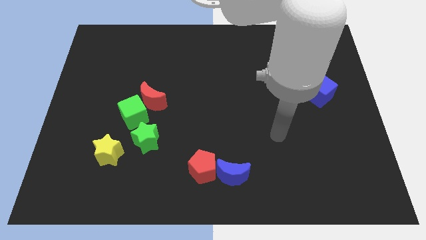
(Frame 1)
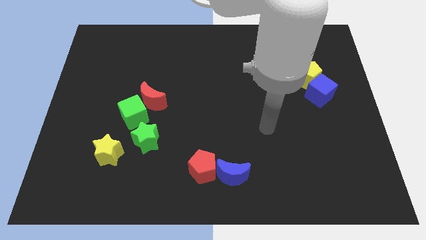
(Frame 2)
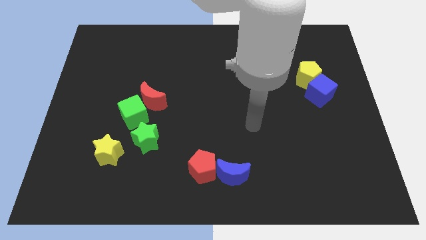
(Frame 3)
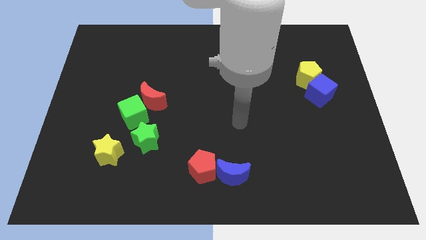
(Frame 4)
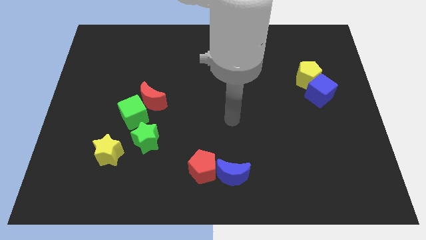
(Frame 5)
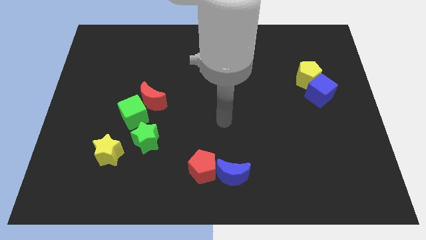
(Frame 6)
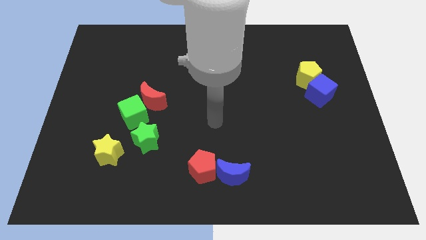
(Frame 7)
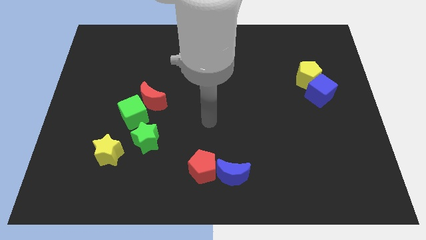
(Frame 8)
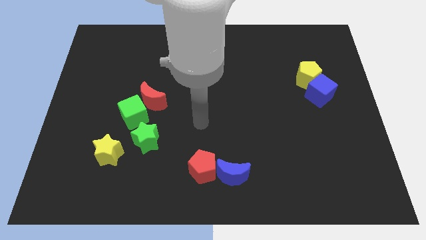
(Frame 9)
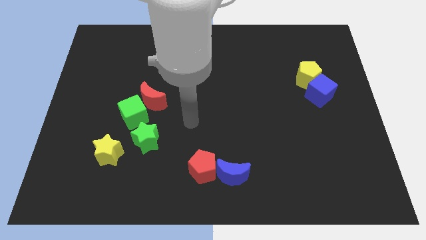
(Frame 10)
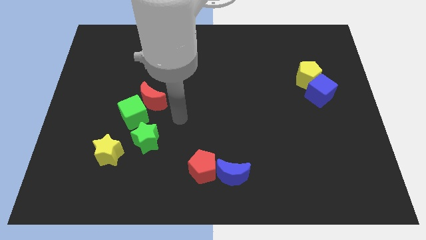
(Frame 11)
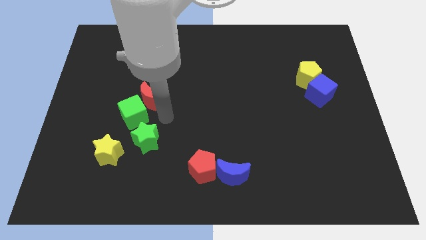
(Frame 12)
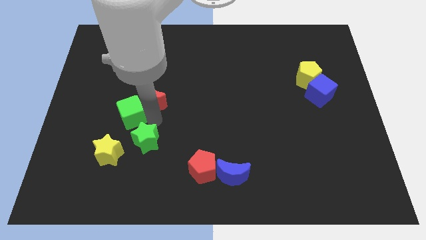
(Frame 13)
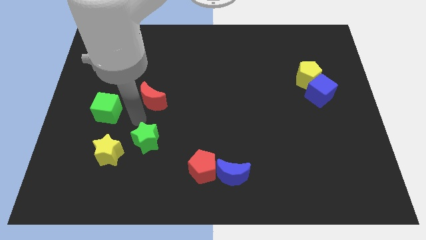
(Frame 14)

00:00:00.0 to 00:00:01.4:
separate the red moon from the green cube

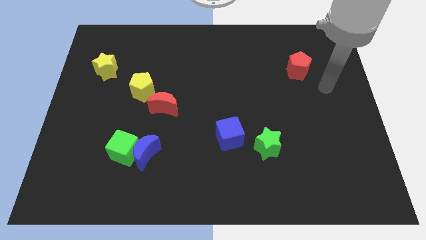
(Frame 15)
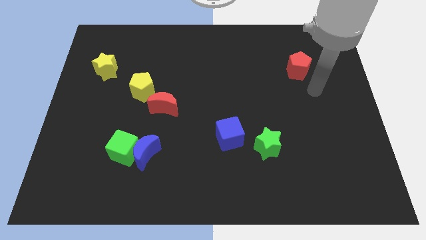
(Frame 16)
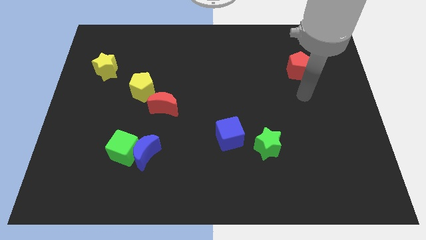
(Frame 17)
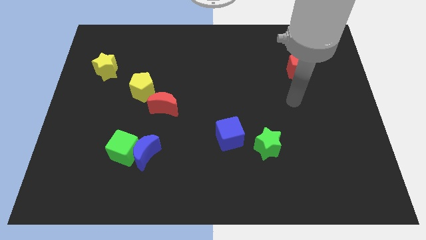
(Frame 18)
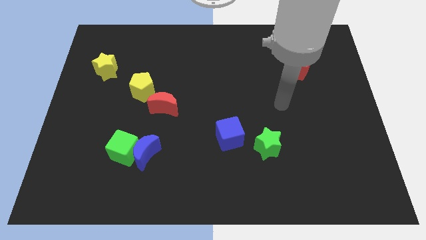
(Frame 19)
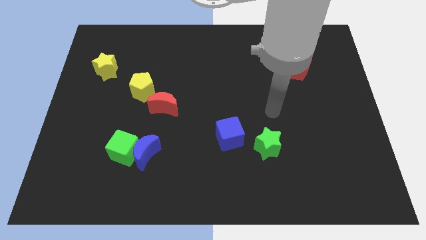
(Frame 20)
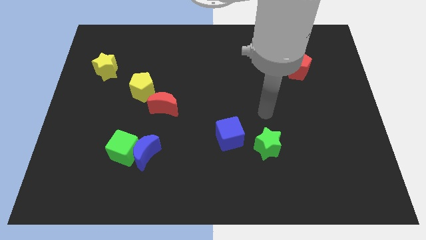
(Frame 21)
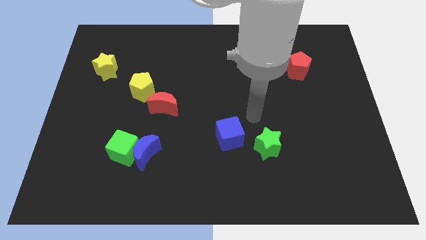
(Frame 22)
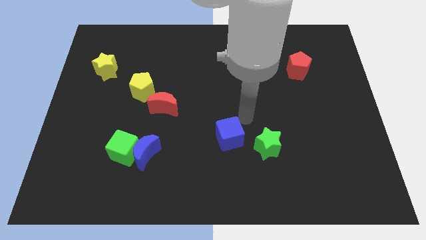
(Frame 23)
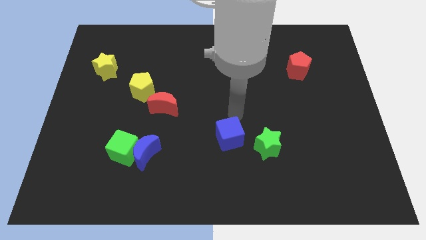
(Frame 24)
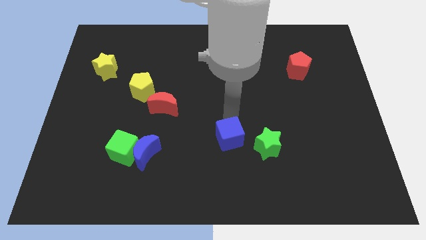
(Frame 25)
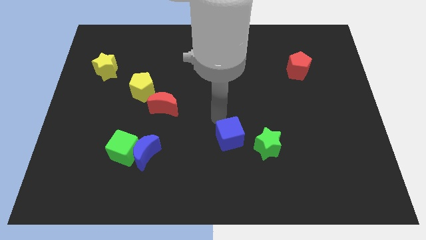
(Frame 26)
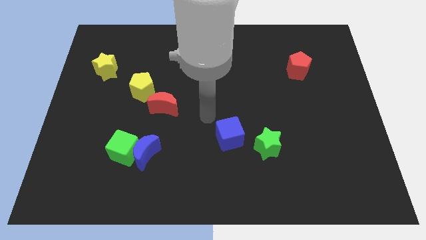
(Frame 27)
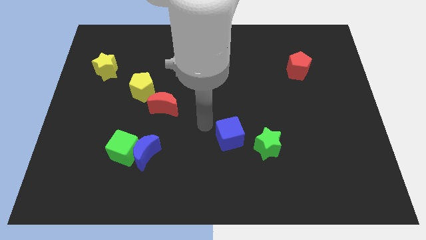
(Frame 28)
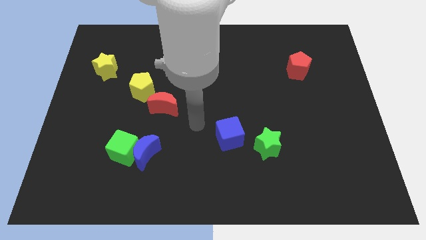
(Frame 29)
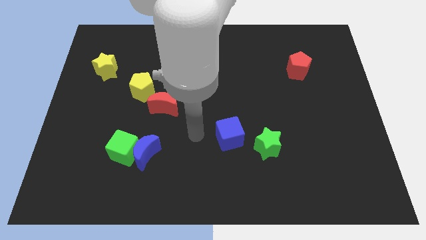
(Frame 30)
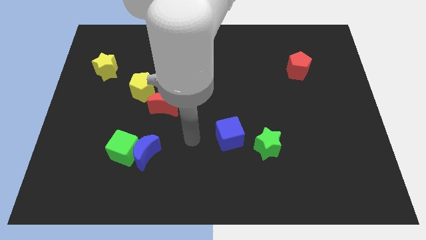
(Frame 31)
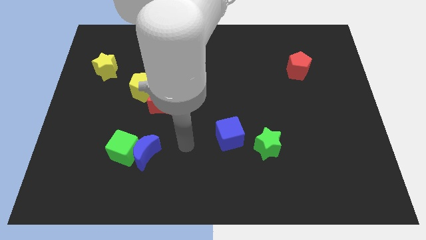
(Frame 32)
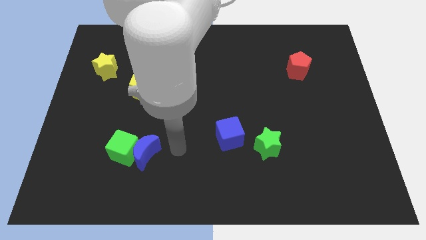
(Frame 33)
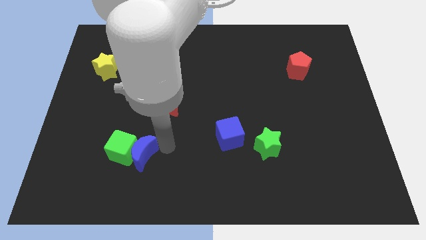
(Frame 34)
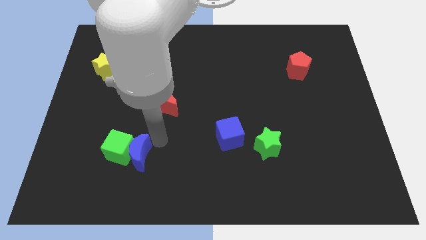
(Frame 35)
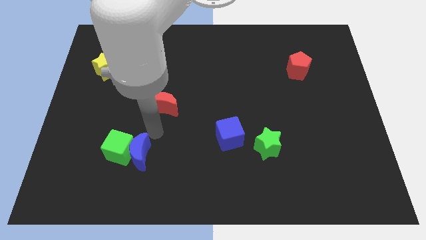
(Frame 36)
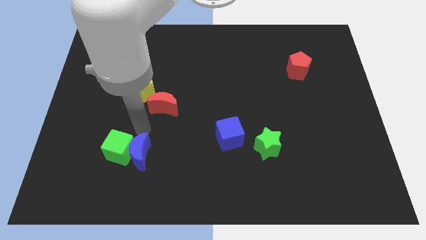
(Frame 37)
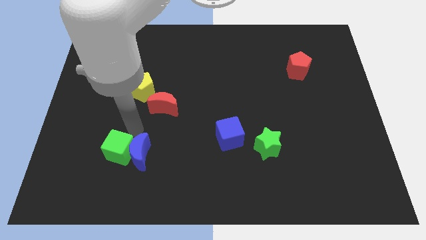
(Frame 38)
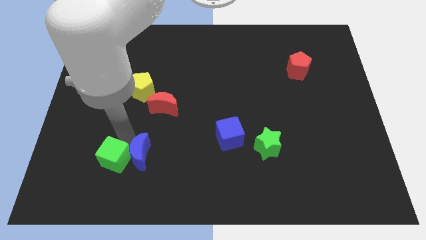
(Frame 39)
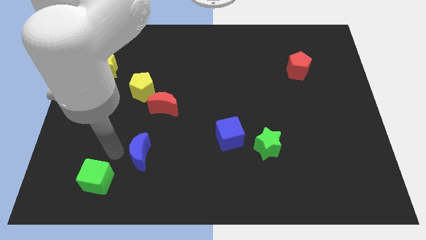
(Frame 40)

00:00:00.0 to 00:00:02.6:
move the blue moon away from the green cube

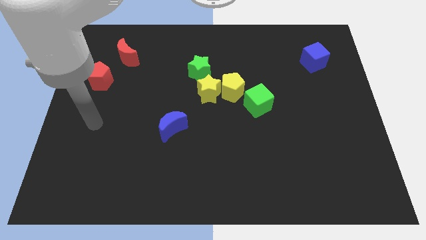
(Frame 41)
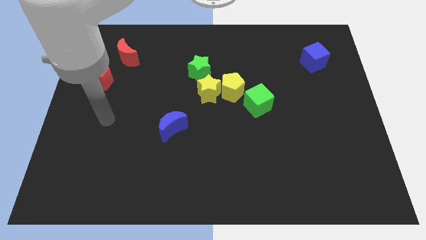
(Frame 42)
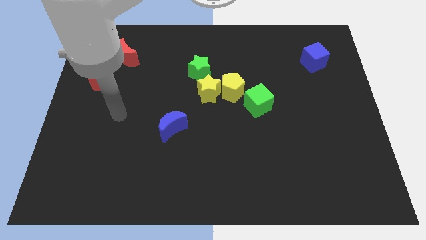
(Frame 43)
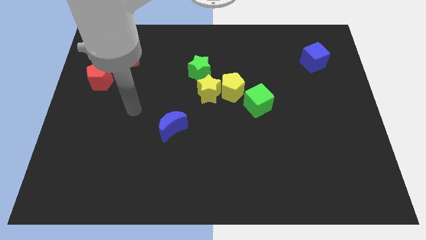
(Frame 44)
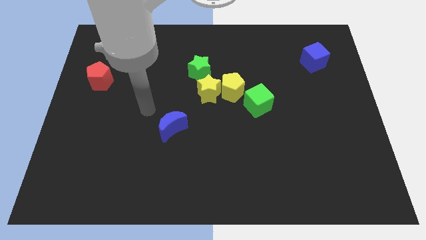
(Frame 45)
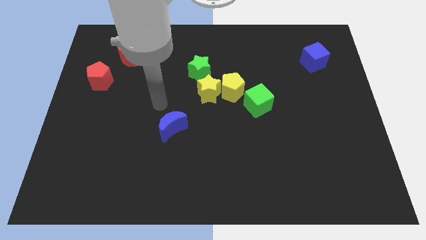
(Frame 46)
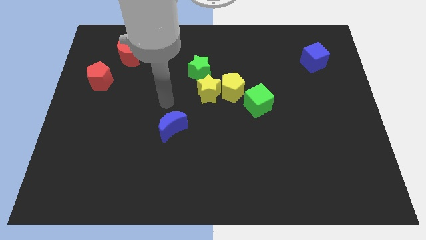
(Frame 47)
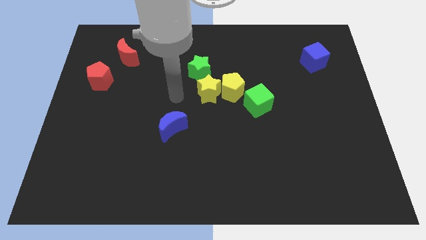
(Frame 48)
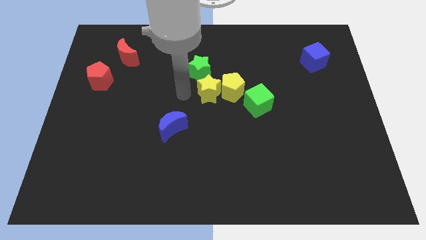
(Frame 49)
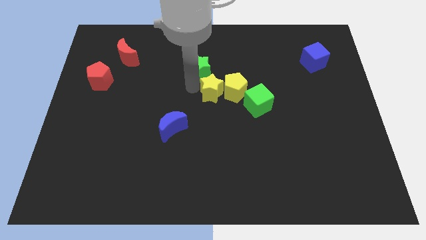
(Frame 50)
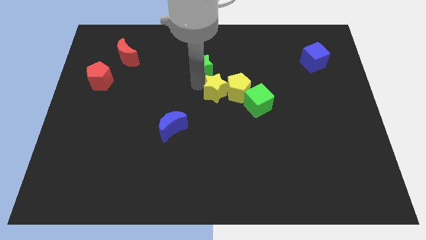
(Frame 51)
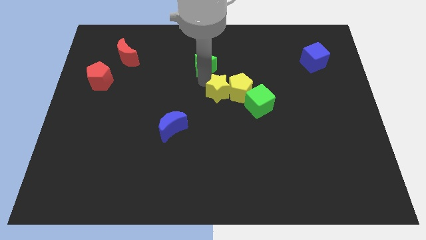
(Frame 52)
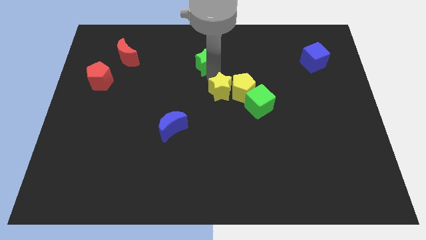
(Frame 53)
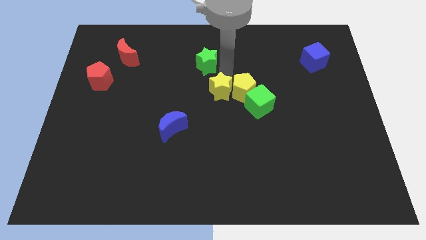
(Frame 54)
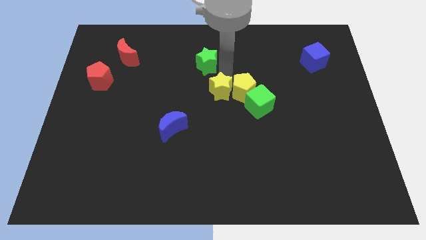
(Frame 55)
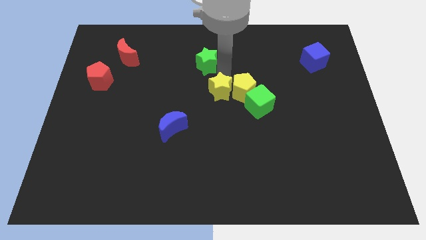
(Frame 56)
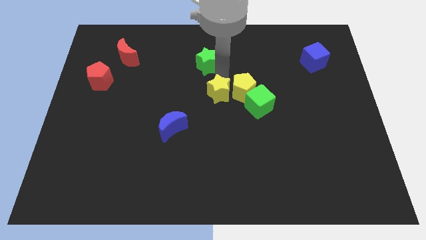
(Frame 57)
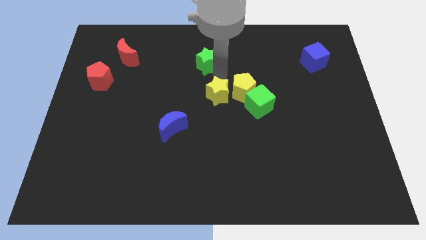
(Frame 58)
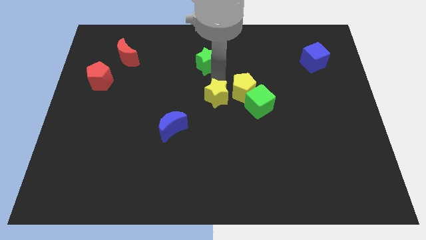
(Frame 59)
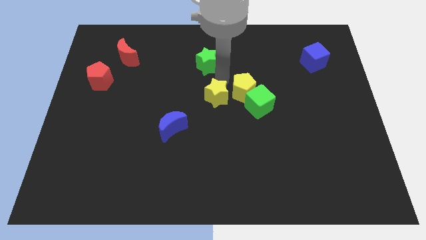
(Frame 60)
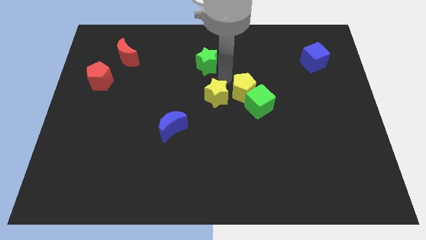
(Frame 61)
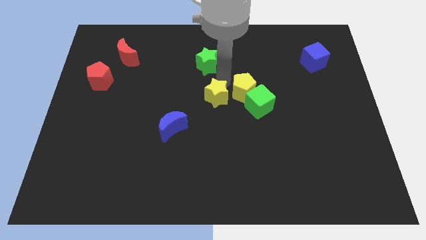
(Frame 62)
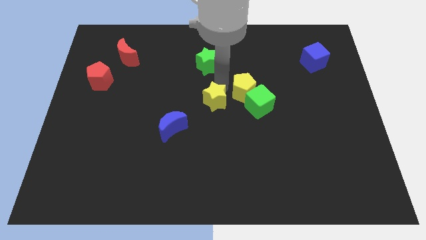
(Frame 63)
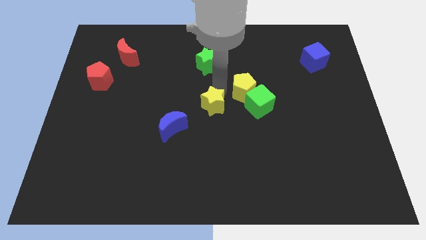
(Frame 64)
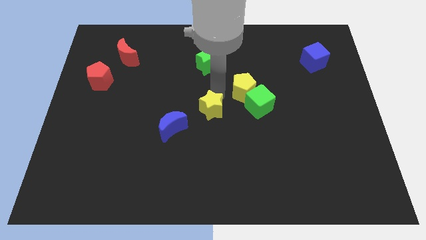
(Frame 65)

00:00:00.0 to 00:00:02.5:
pull the yellow star apart from the yellow pentagon and green star

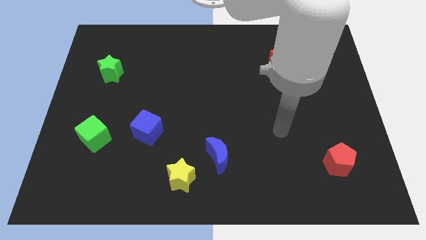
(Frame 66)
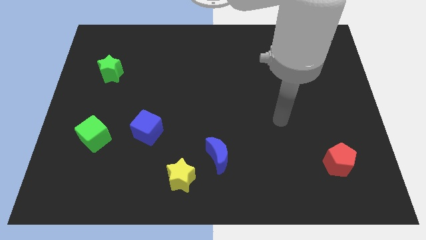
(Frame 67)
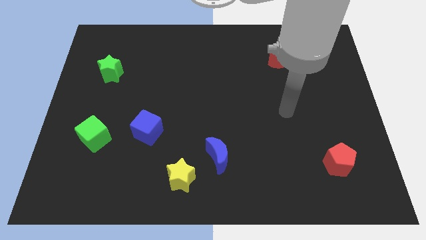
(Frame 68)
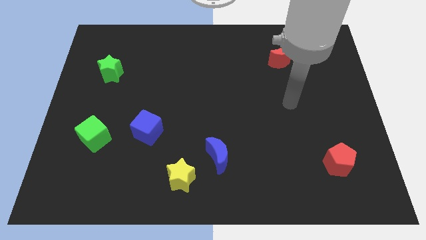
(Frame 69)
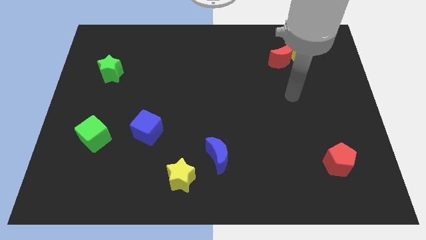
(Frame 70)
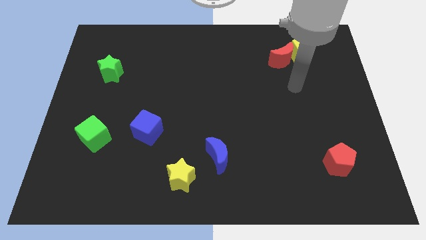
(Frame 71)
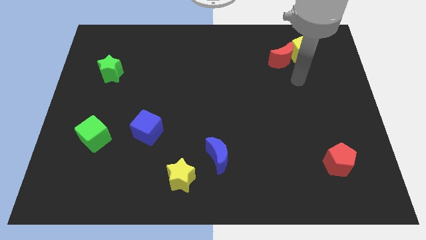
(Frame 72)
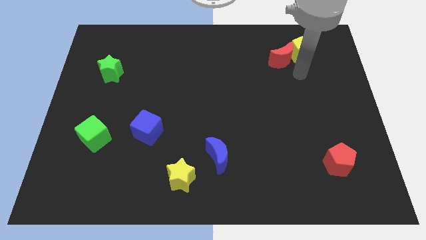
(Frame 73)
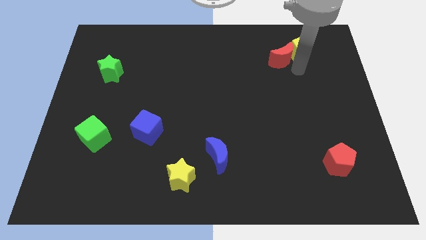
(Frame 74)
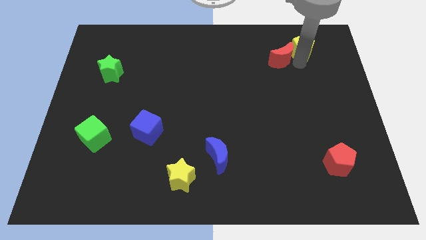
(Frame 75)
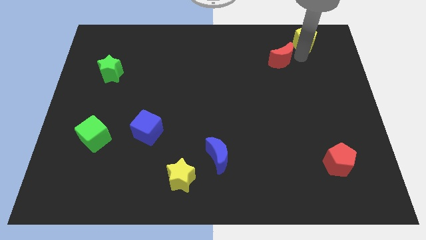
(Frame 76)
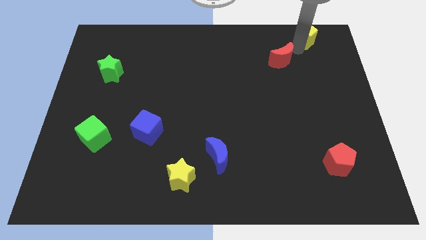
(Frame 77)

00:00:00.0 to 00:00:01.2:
pull the red moon apart from the yellow pentagon

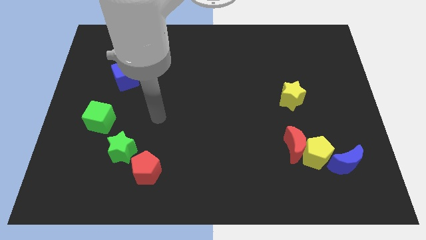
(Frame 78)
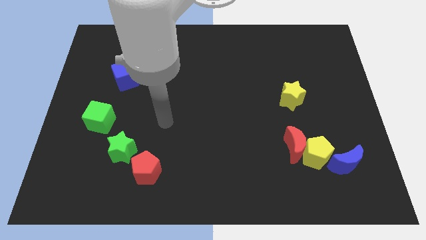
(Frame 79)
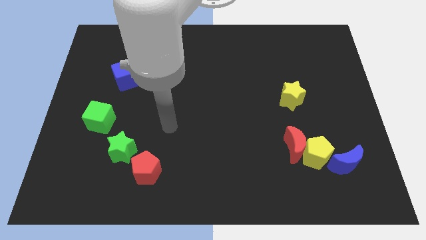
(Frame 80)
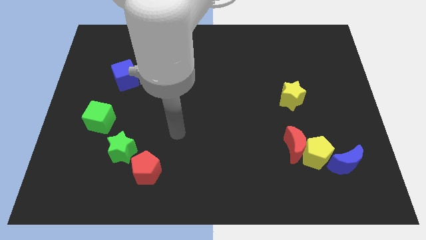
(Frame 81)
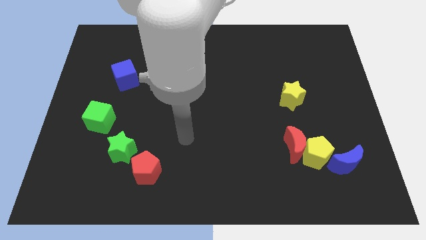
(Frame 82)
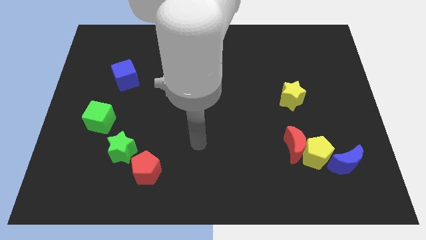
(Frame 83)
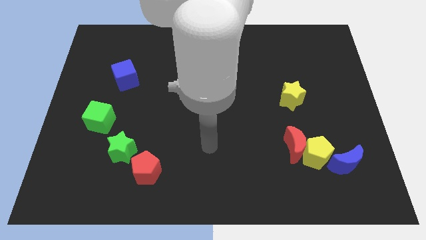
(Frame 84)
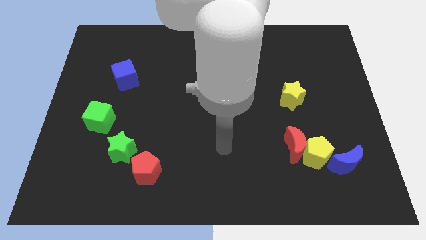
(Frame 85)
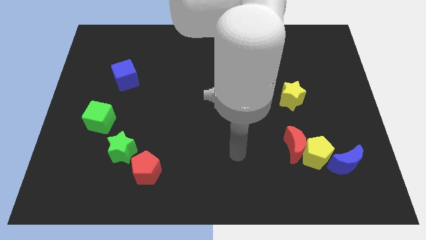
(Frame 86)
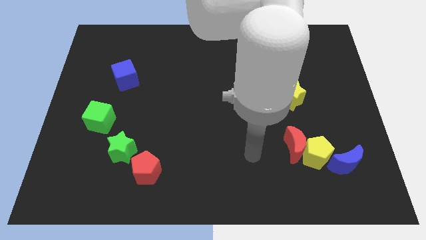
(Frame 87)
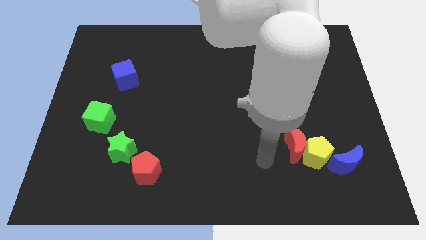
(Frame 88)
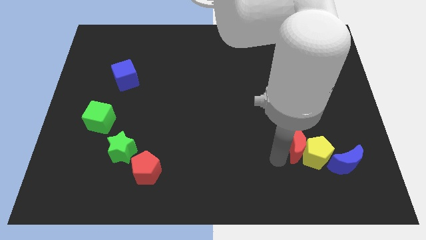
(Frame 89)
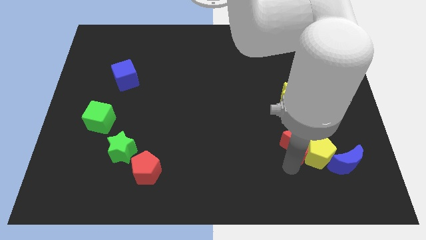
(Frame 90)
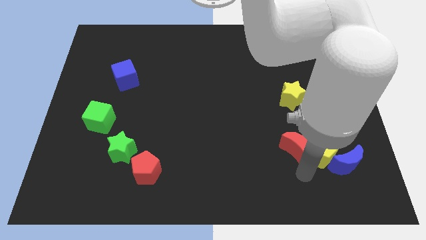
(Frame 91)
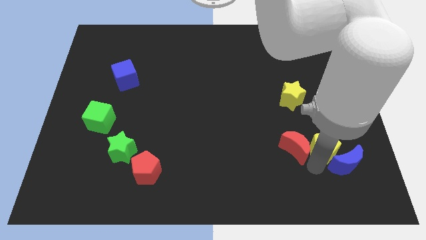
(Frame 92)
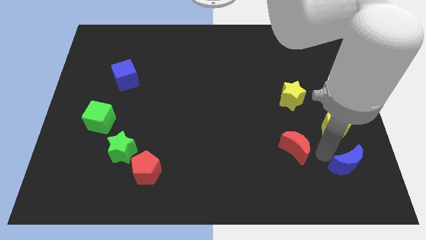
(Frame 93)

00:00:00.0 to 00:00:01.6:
separate the red moon from the yellow pentagon

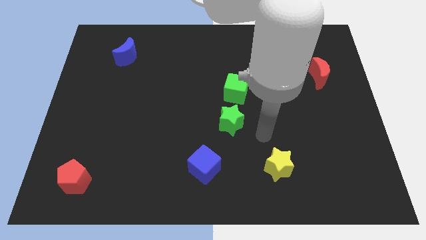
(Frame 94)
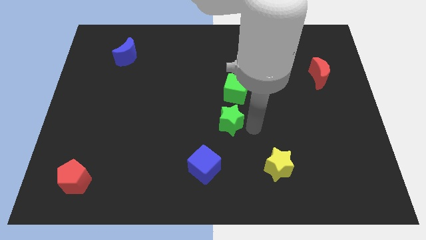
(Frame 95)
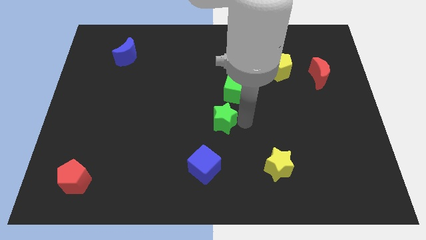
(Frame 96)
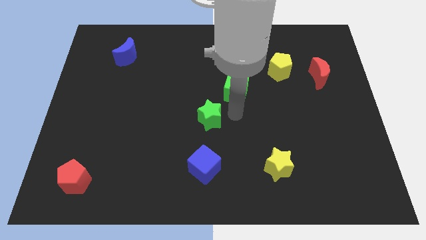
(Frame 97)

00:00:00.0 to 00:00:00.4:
pull the green cube apart from the green star
